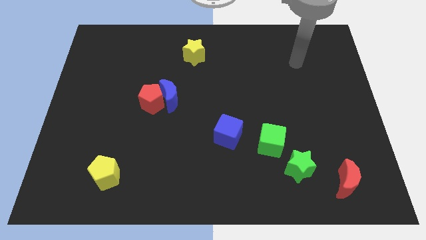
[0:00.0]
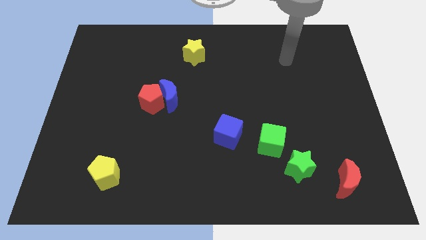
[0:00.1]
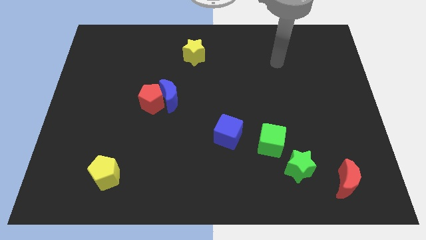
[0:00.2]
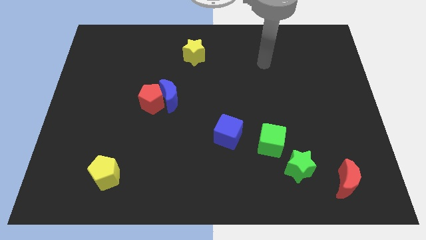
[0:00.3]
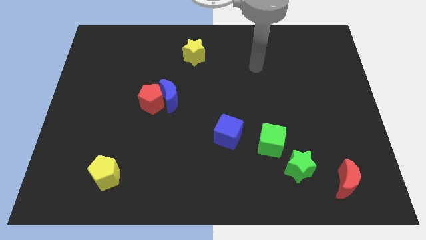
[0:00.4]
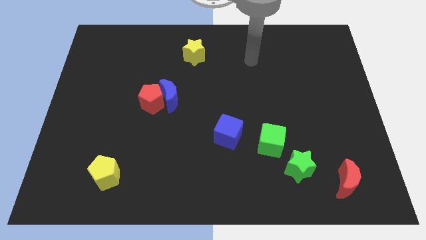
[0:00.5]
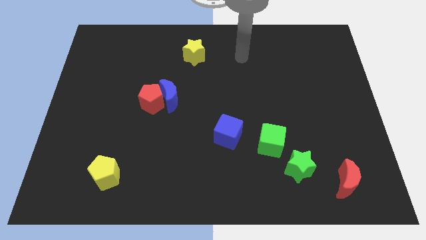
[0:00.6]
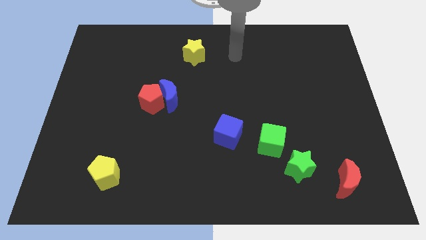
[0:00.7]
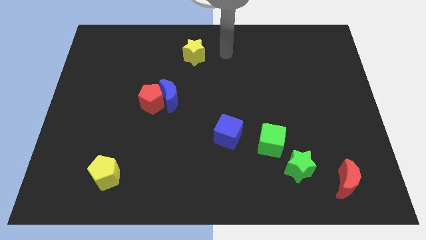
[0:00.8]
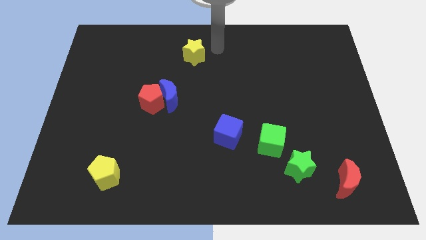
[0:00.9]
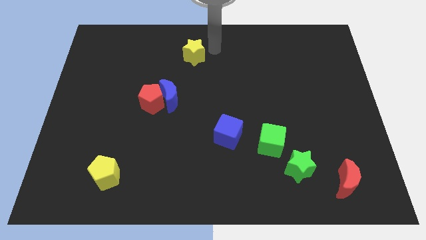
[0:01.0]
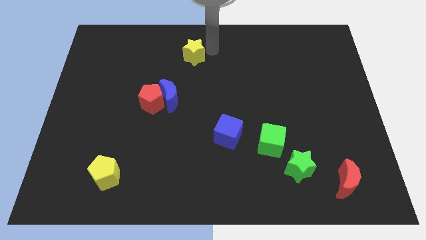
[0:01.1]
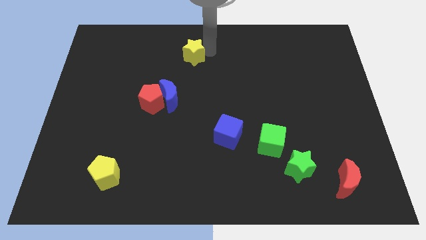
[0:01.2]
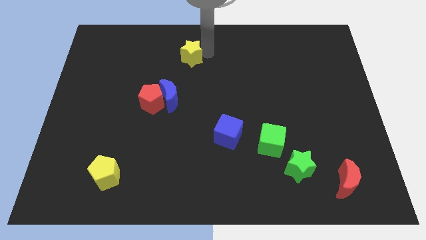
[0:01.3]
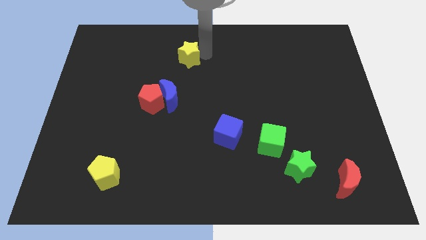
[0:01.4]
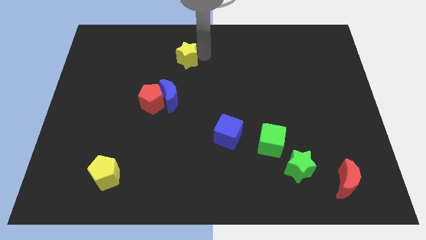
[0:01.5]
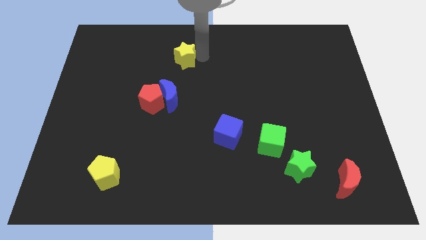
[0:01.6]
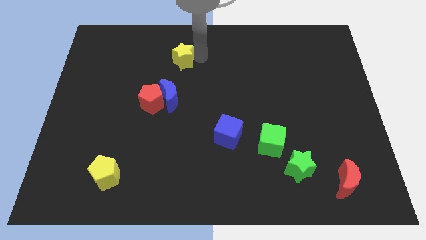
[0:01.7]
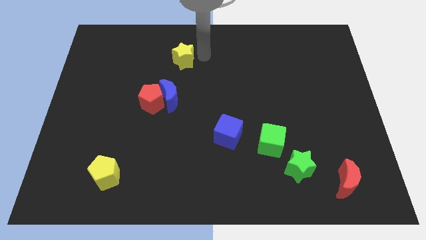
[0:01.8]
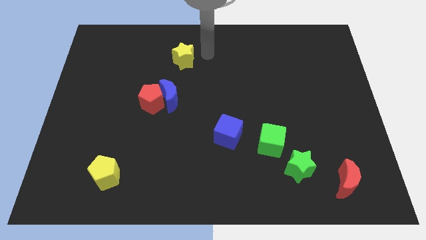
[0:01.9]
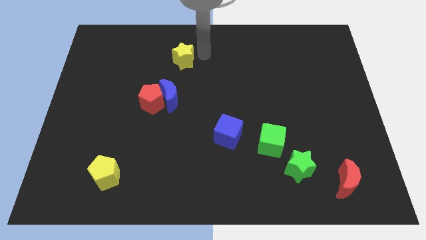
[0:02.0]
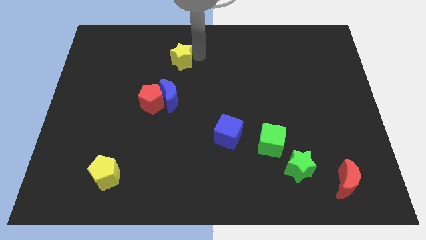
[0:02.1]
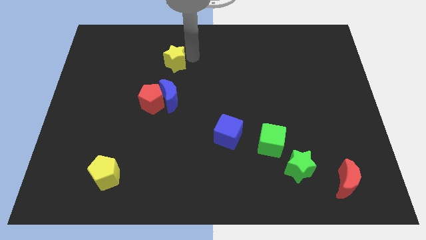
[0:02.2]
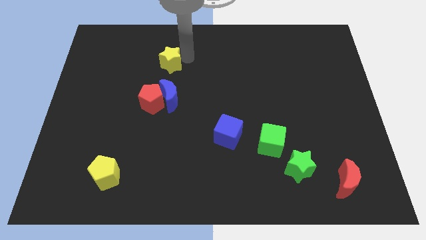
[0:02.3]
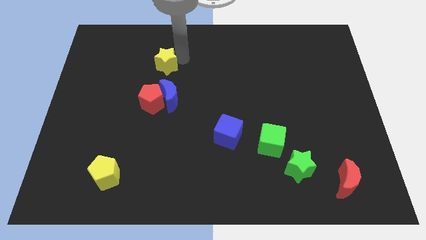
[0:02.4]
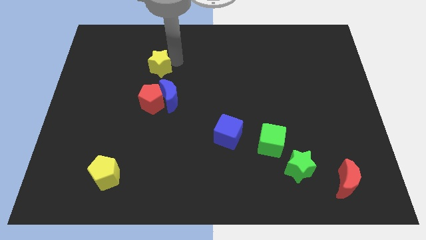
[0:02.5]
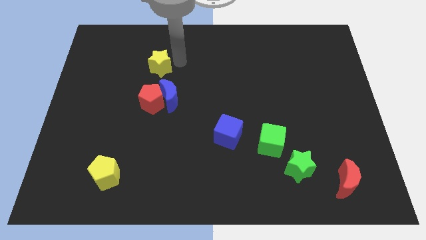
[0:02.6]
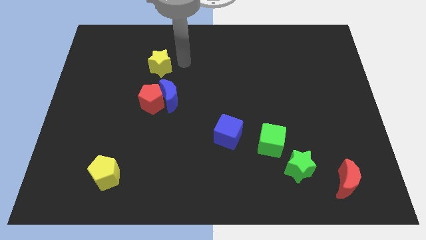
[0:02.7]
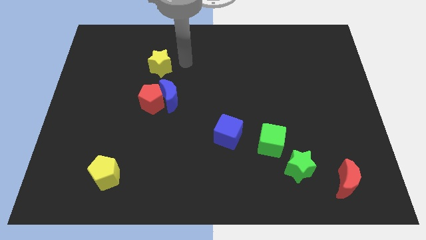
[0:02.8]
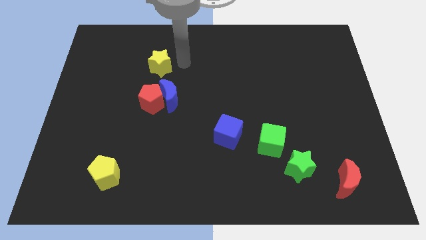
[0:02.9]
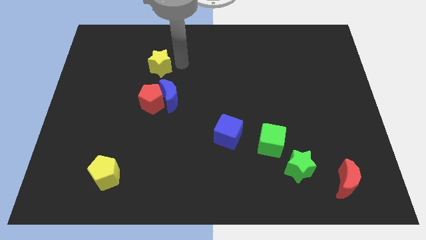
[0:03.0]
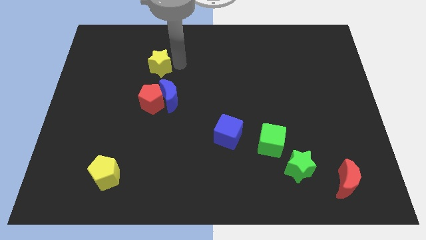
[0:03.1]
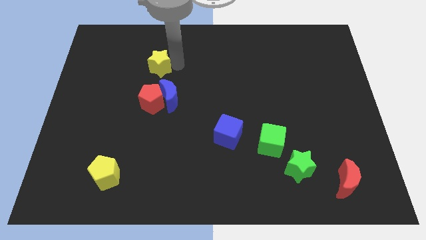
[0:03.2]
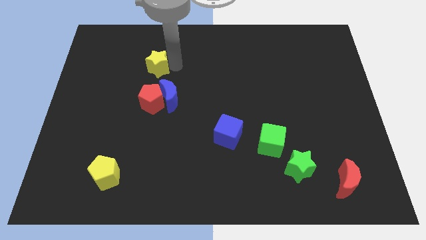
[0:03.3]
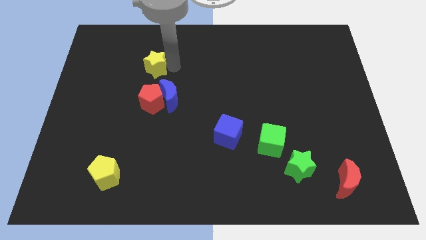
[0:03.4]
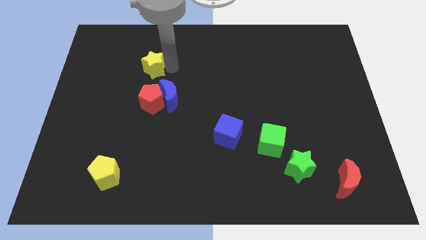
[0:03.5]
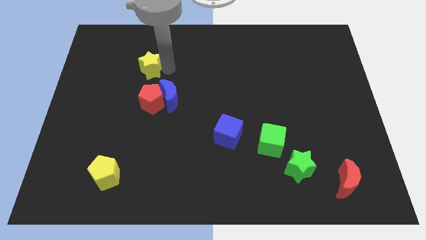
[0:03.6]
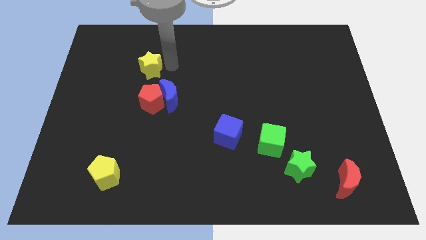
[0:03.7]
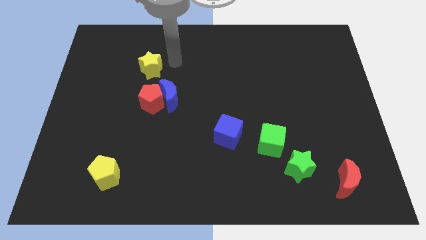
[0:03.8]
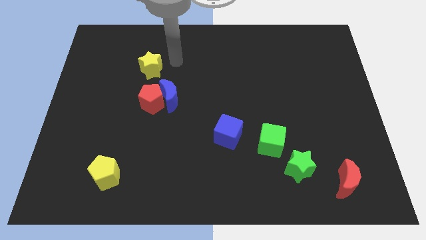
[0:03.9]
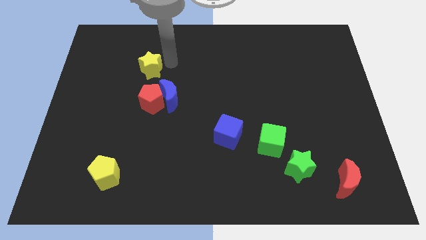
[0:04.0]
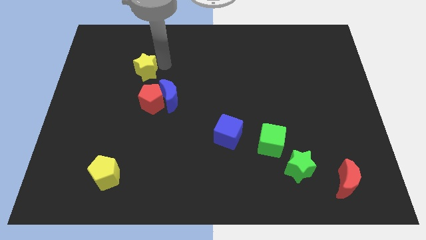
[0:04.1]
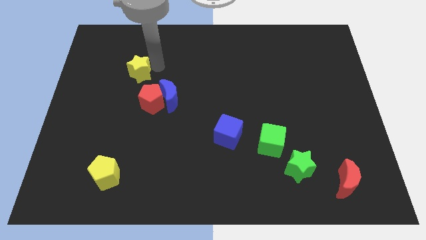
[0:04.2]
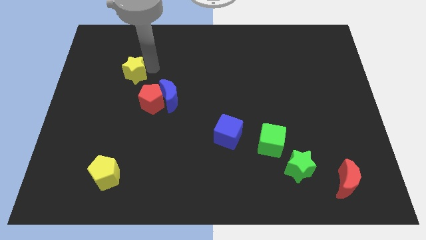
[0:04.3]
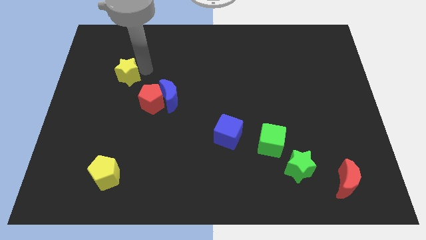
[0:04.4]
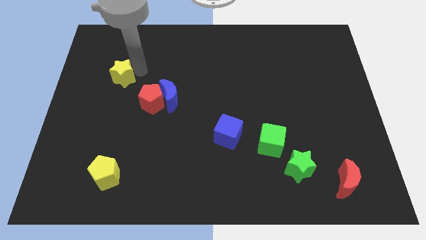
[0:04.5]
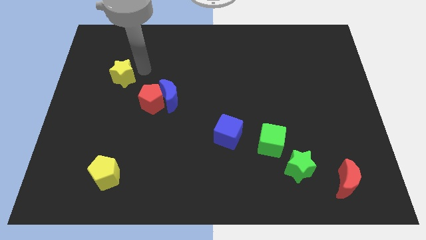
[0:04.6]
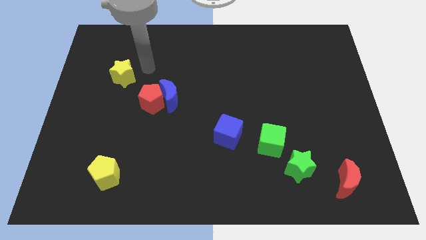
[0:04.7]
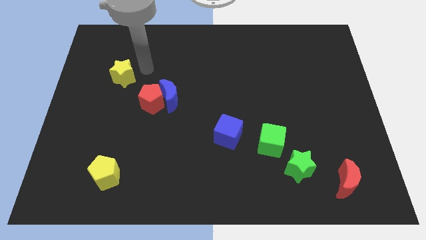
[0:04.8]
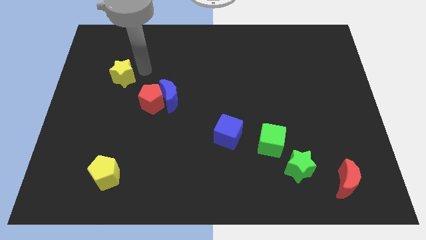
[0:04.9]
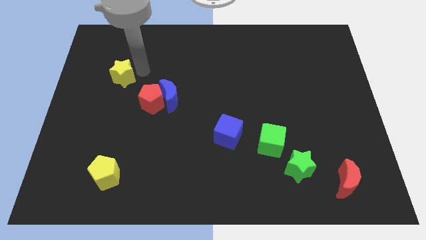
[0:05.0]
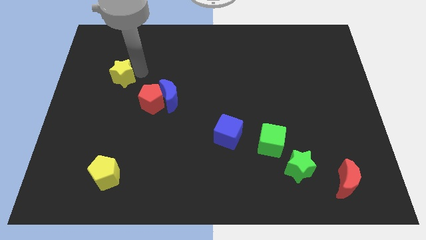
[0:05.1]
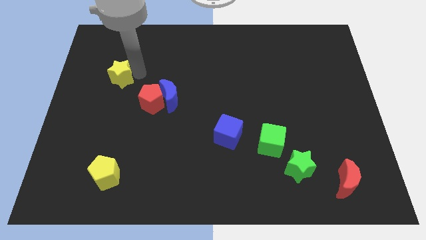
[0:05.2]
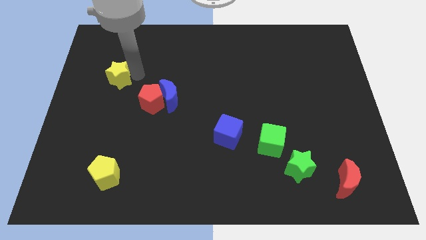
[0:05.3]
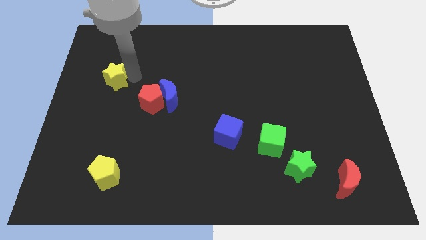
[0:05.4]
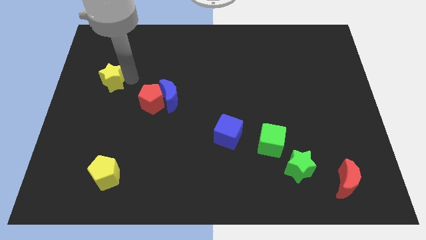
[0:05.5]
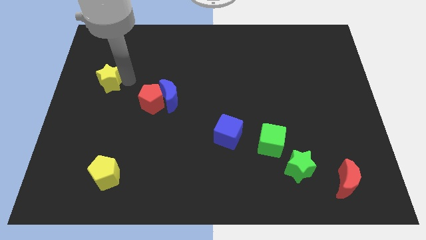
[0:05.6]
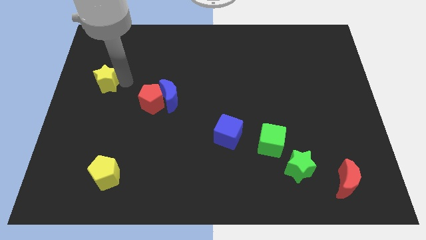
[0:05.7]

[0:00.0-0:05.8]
slide the yellow star to the center left

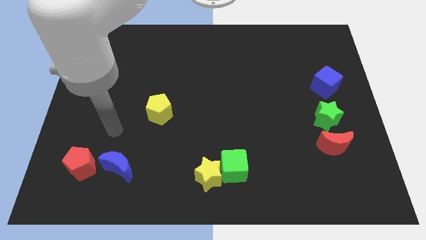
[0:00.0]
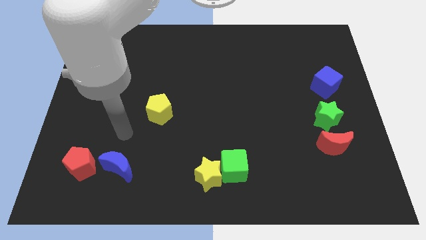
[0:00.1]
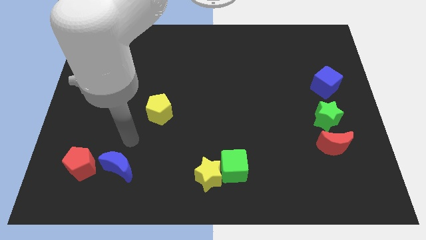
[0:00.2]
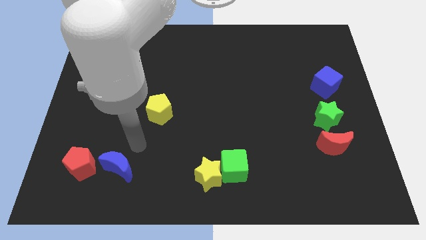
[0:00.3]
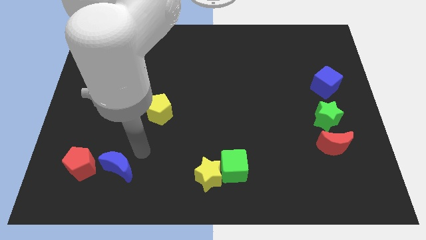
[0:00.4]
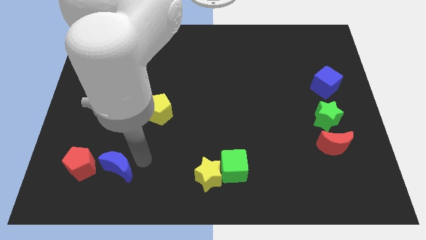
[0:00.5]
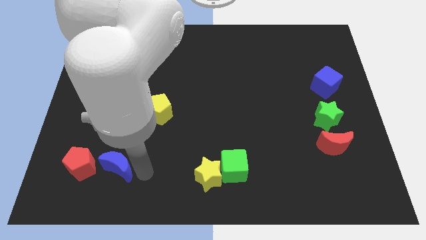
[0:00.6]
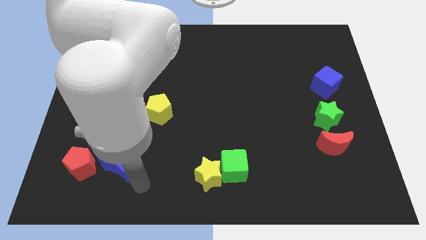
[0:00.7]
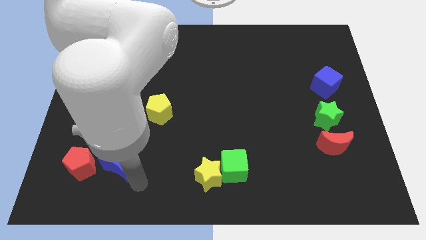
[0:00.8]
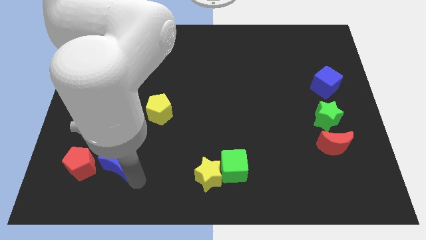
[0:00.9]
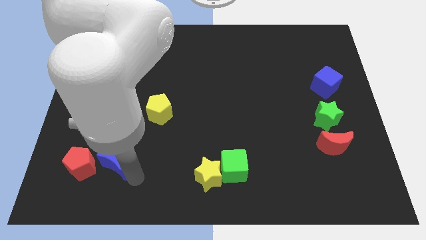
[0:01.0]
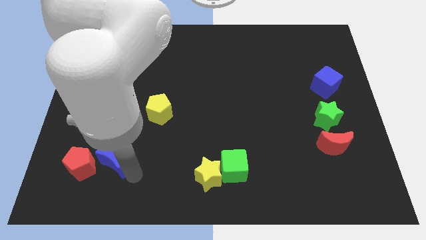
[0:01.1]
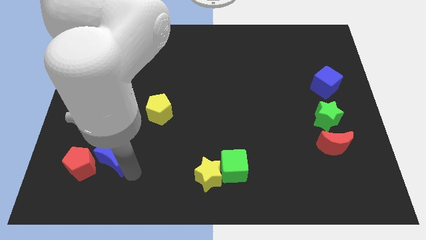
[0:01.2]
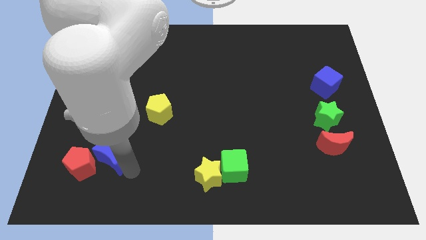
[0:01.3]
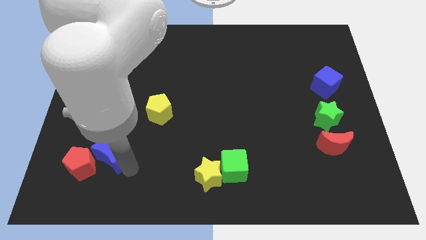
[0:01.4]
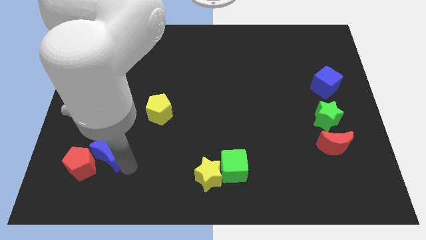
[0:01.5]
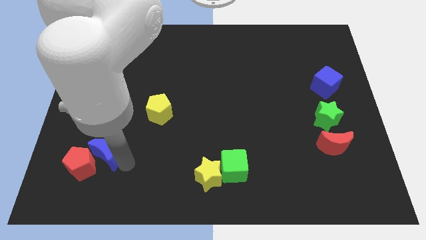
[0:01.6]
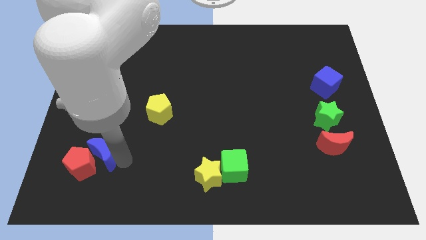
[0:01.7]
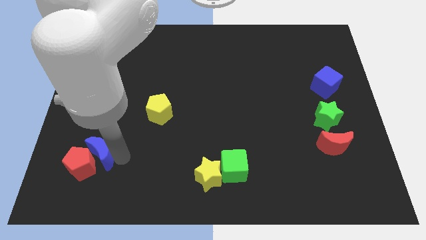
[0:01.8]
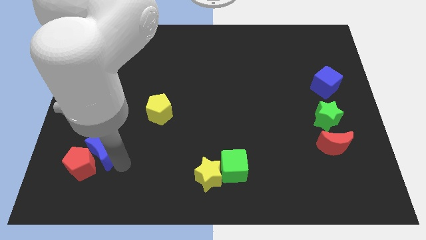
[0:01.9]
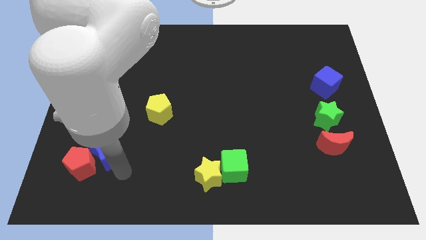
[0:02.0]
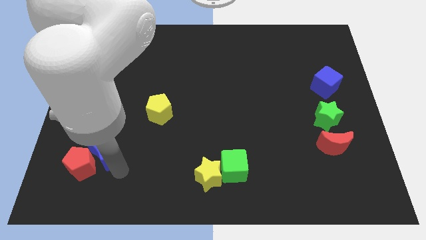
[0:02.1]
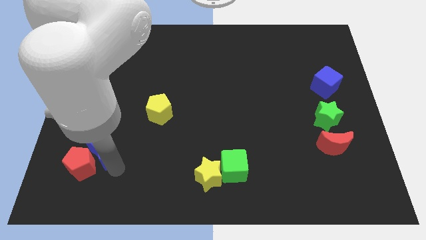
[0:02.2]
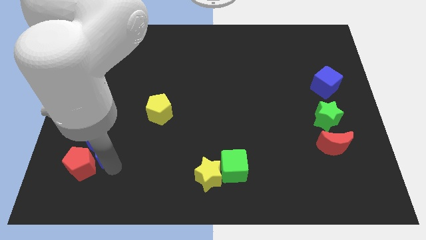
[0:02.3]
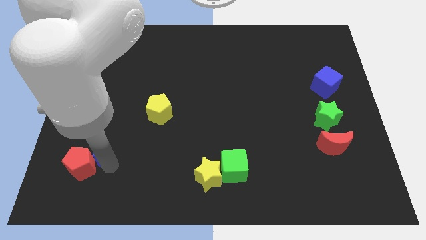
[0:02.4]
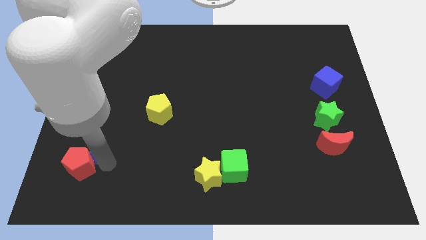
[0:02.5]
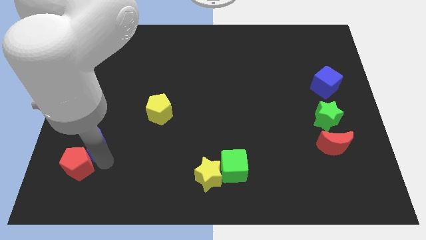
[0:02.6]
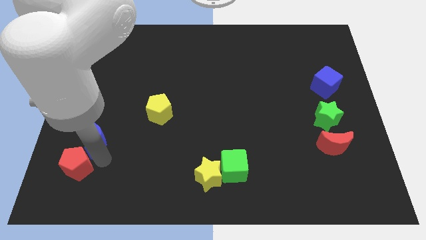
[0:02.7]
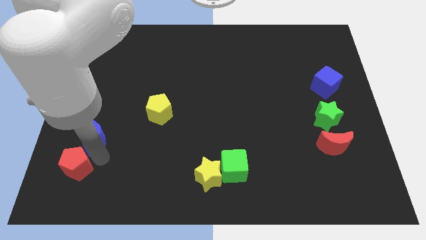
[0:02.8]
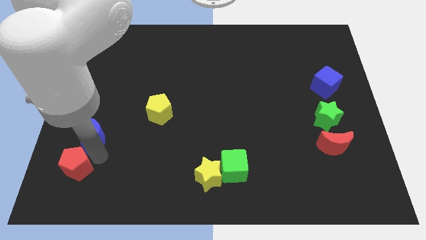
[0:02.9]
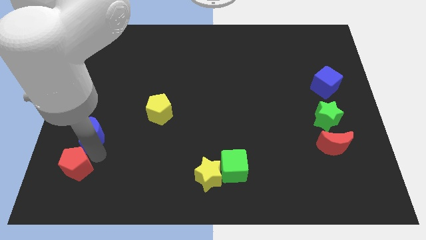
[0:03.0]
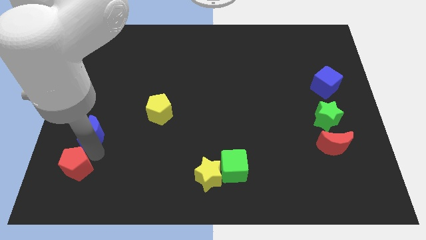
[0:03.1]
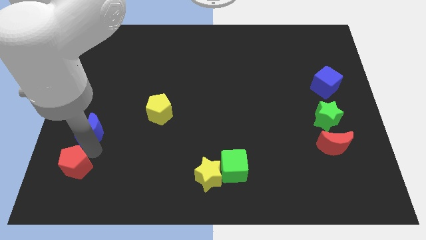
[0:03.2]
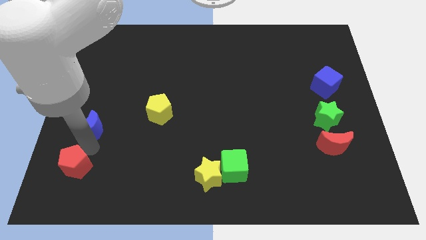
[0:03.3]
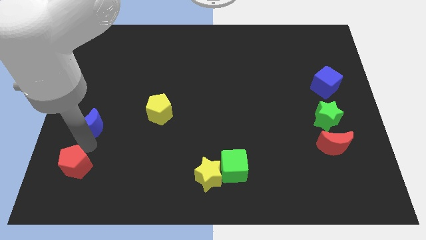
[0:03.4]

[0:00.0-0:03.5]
put the blue moon to the left side
